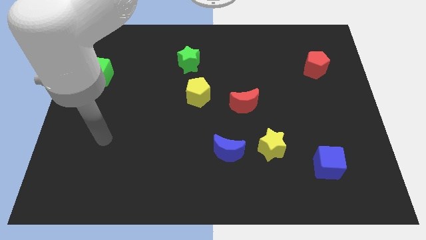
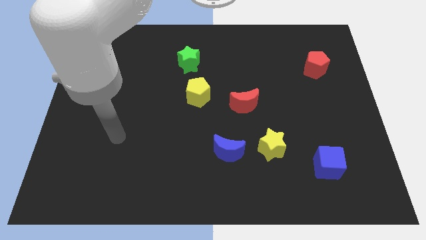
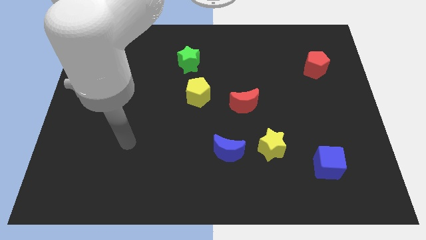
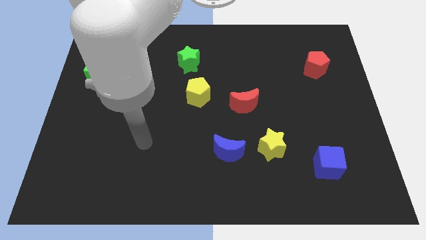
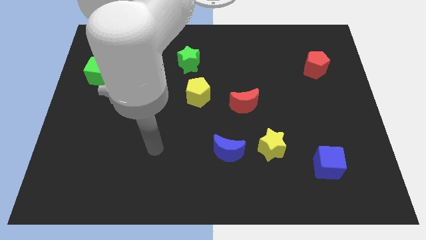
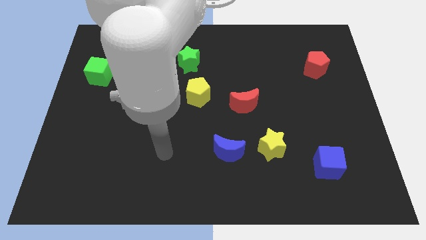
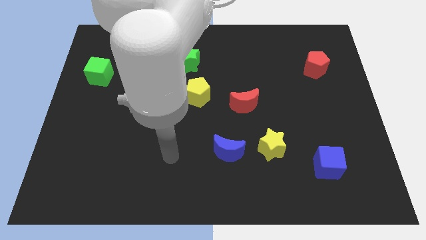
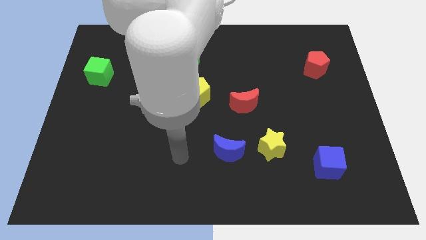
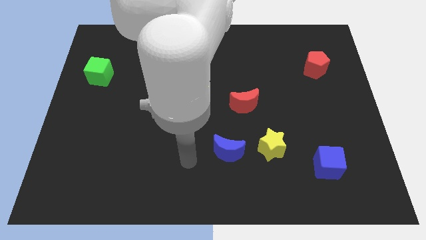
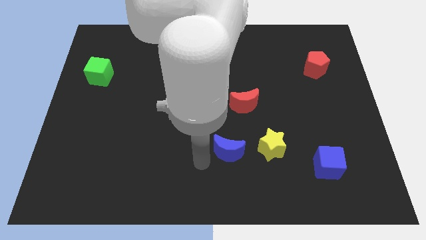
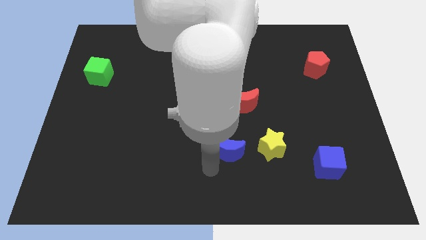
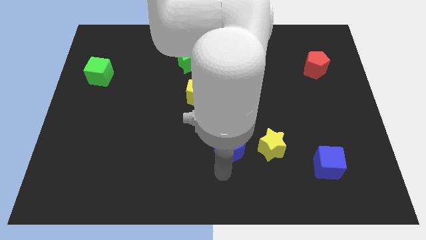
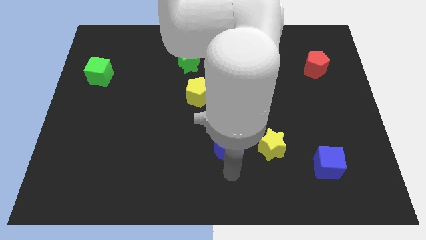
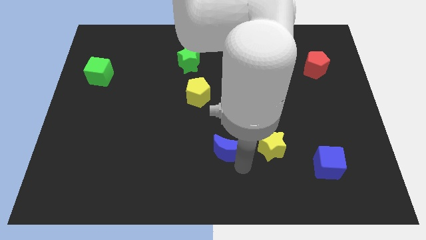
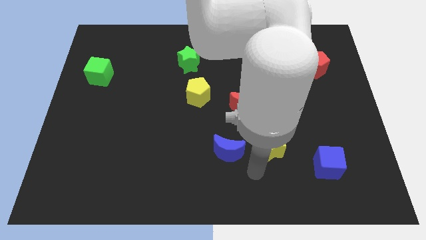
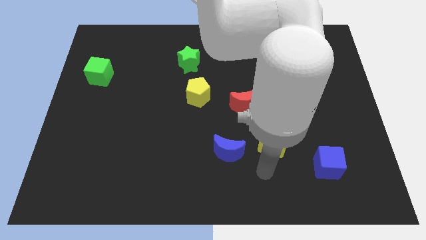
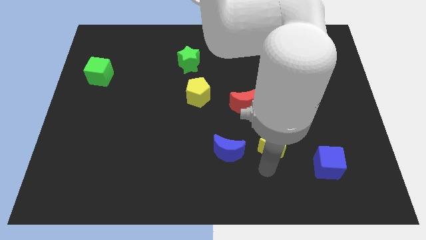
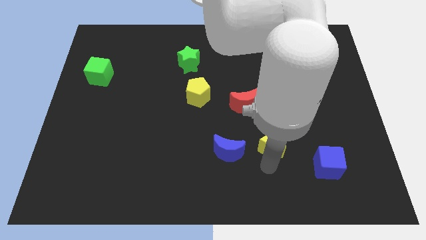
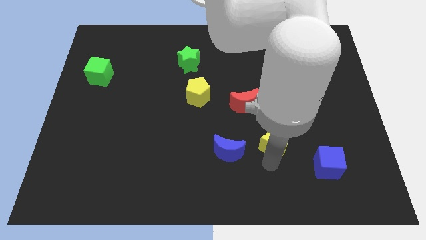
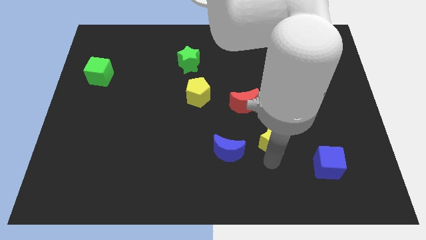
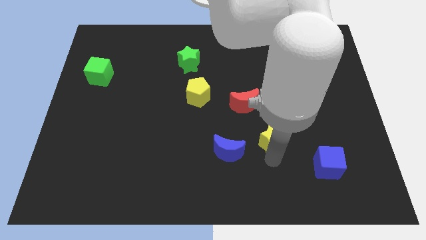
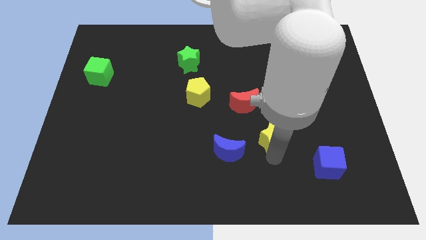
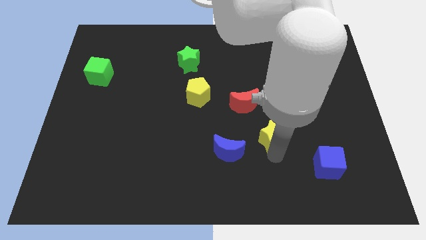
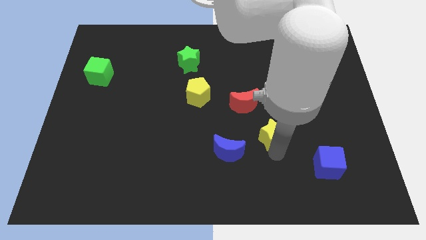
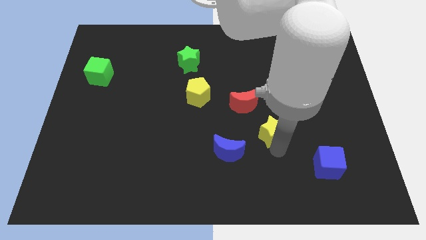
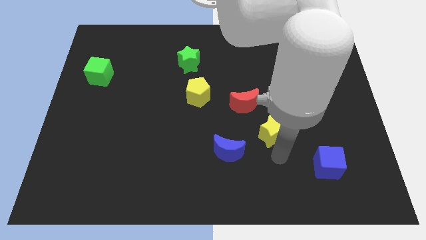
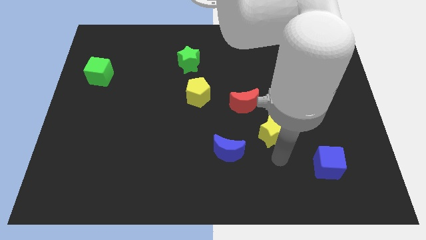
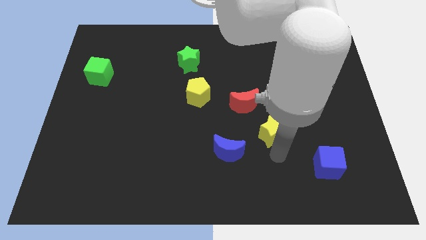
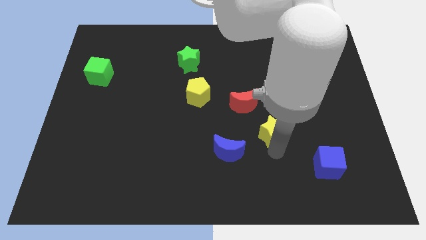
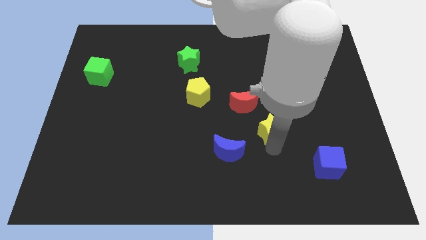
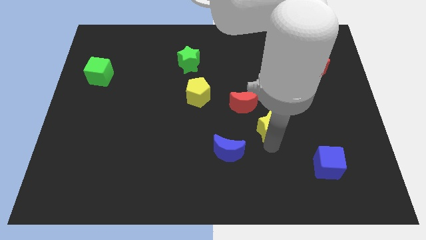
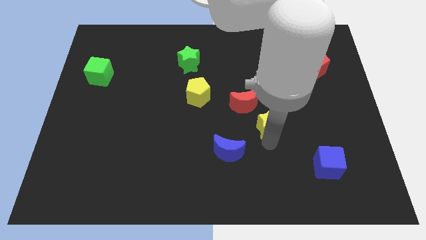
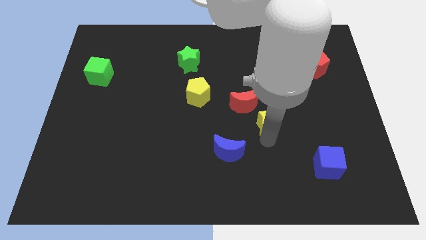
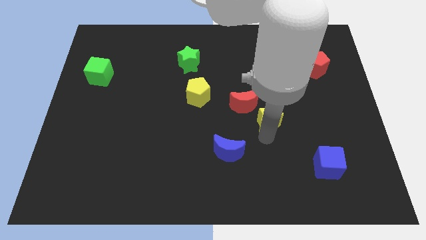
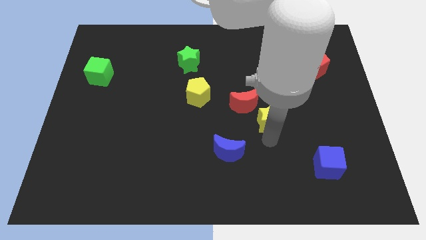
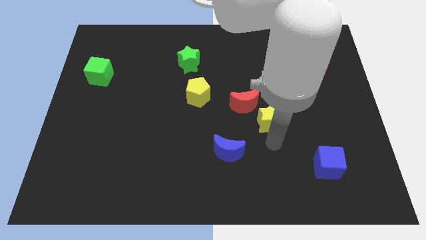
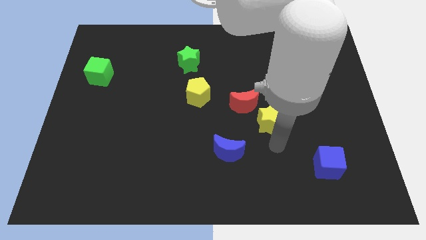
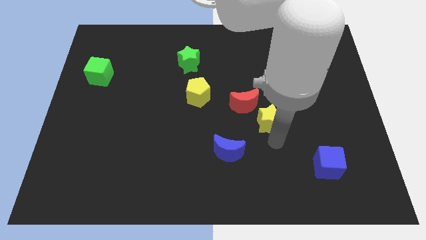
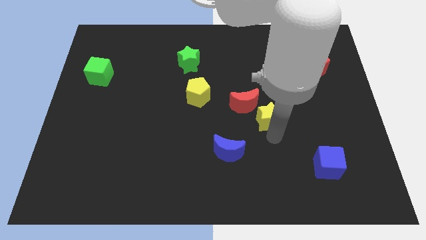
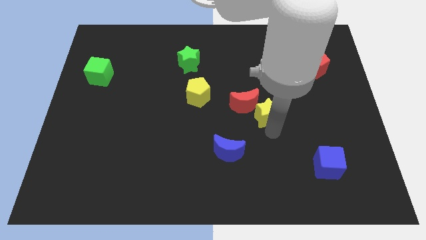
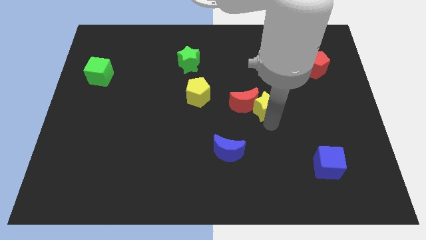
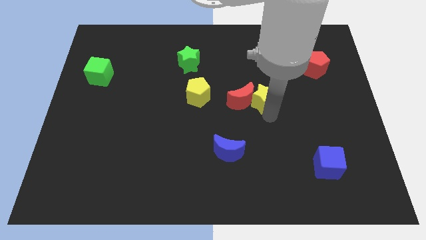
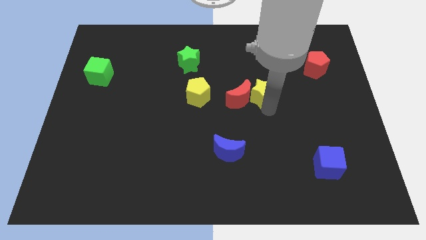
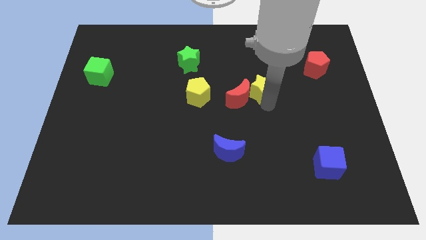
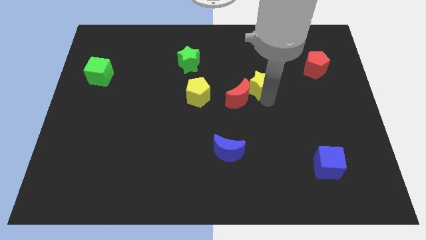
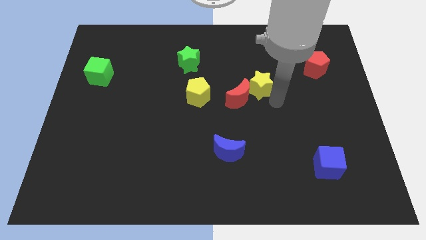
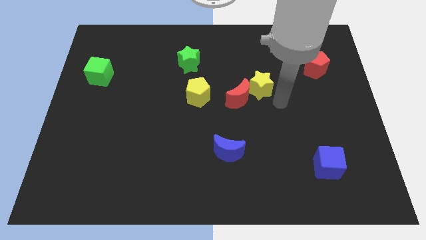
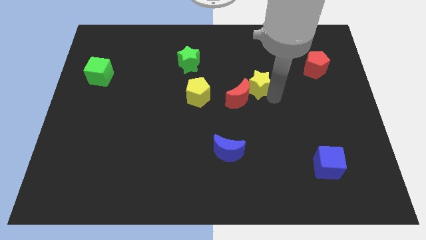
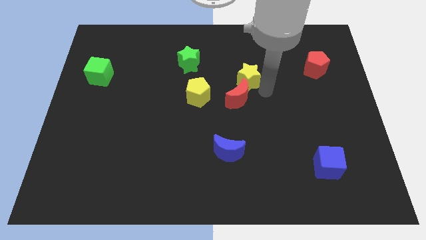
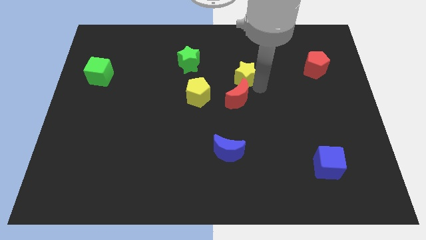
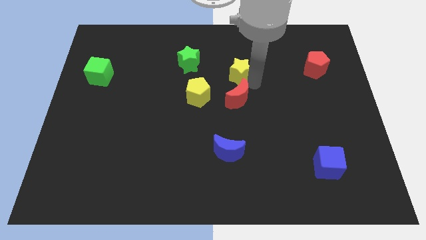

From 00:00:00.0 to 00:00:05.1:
slide the yellow star right of the green star

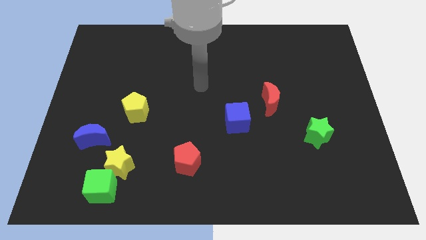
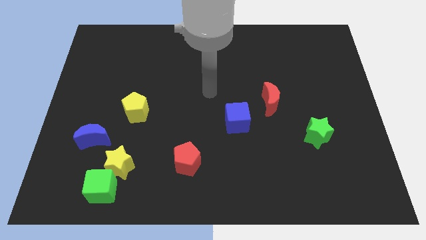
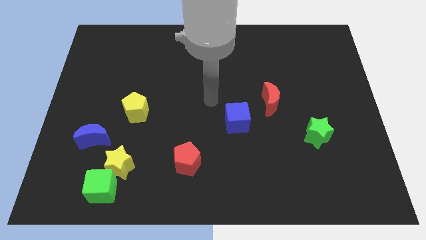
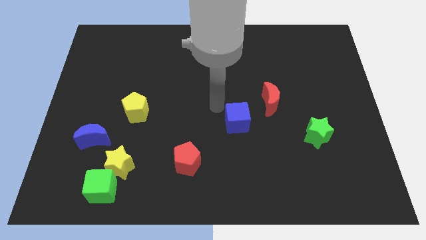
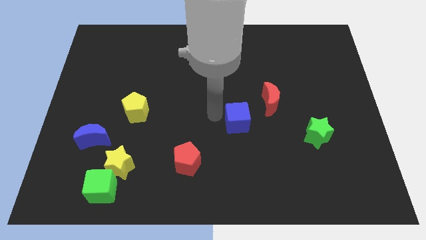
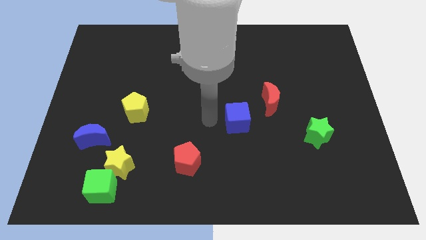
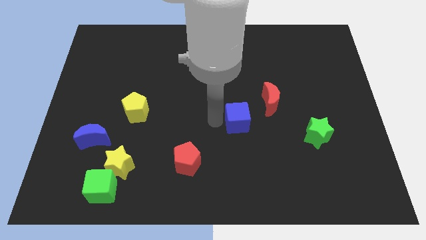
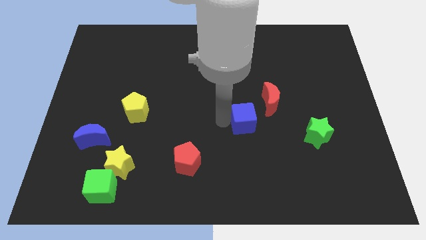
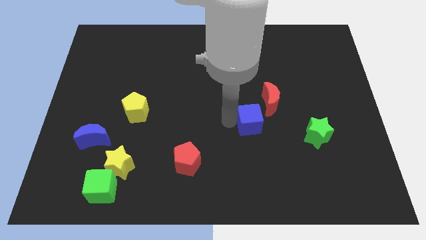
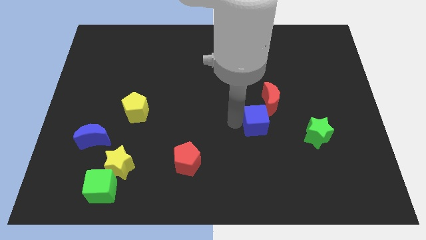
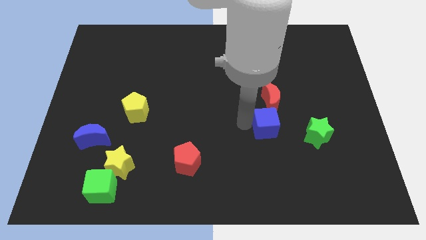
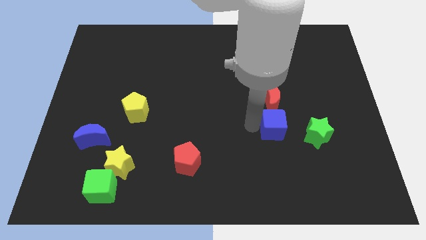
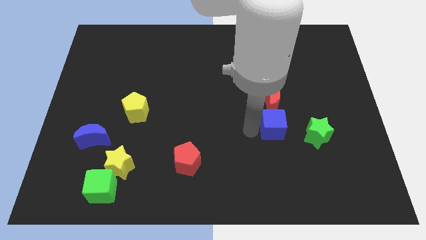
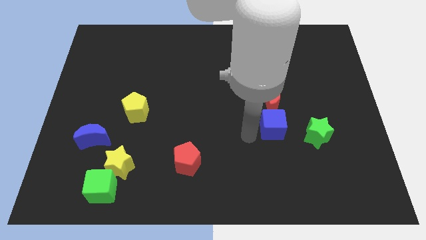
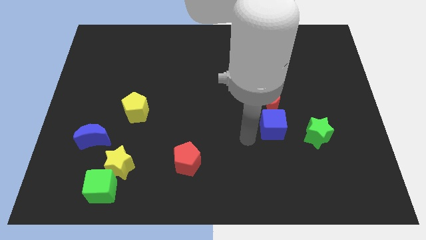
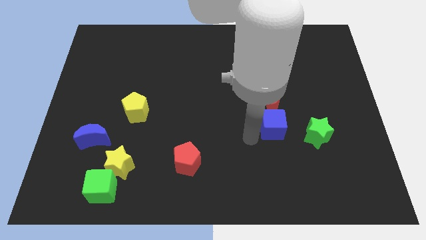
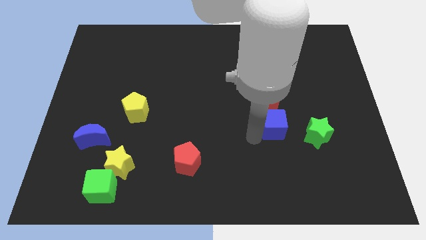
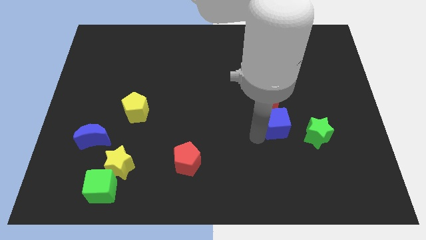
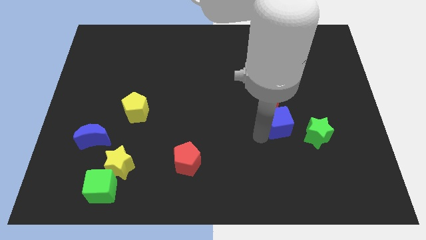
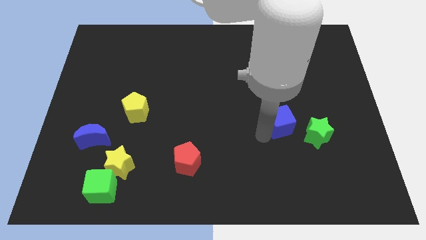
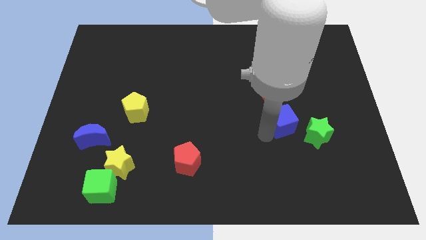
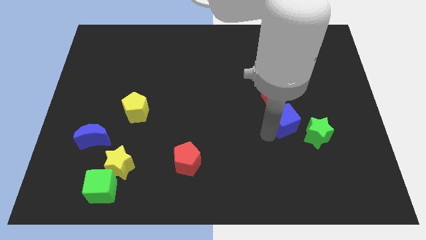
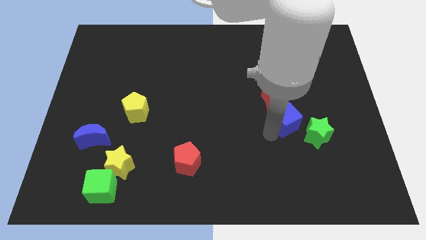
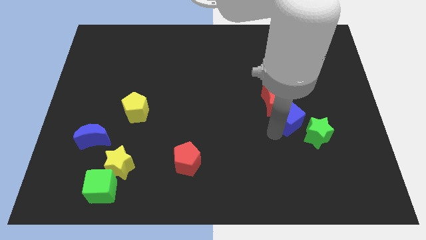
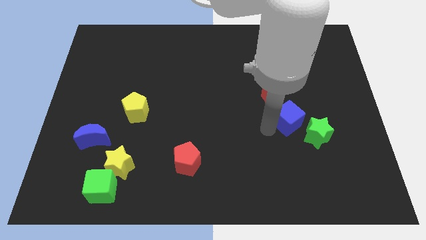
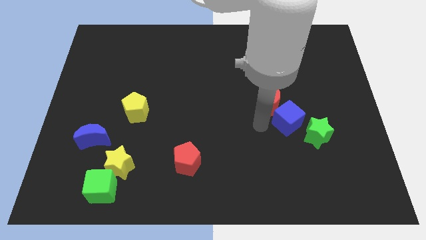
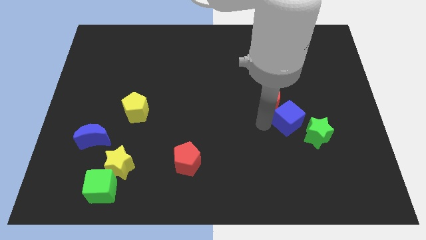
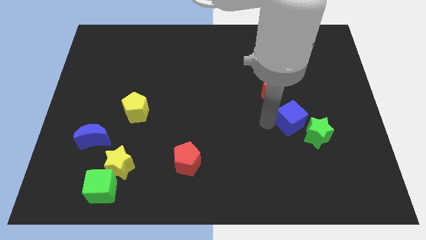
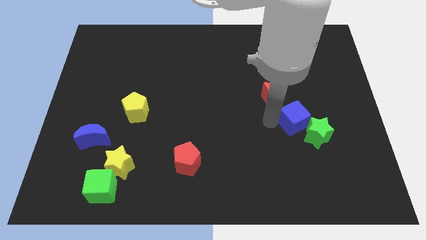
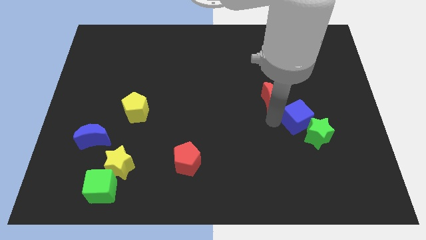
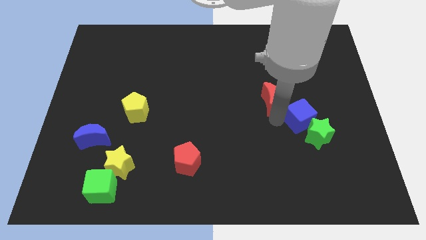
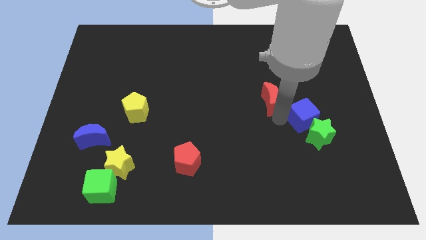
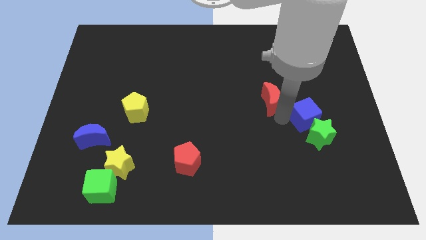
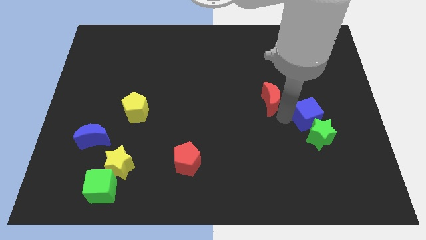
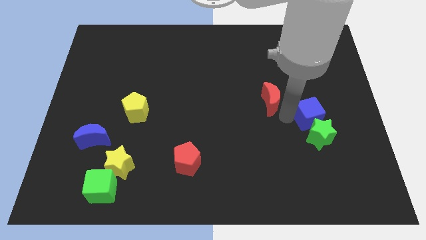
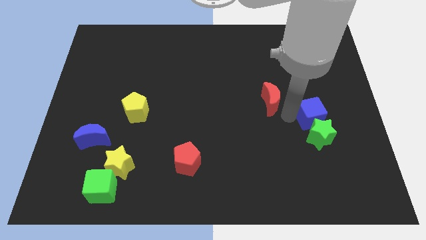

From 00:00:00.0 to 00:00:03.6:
move the blue cube to the top right side of the green star
